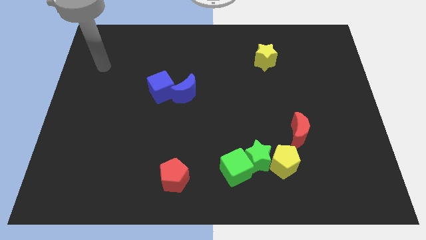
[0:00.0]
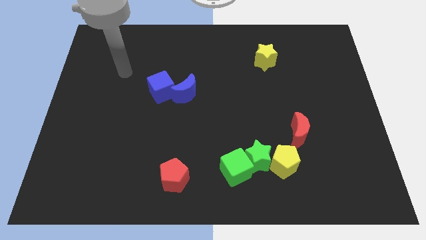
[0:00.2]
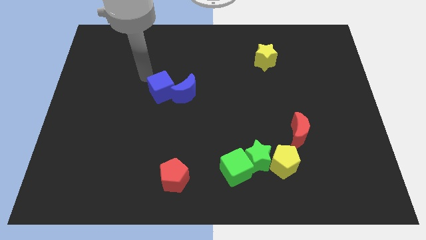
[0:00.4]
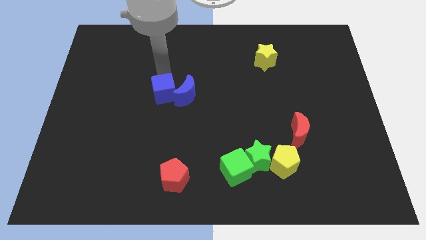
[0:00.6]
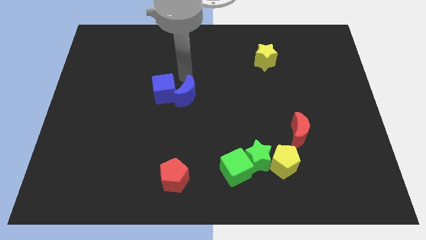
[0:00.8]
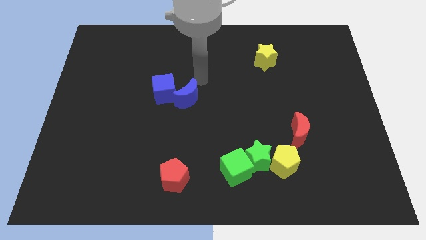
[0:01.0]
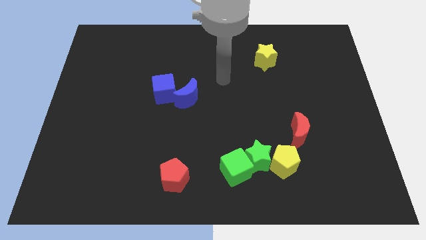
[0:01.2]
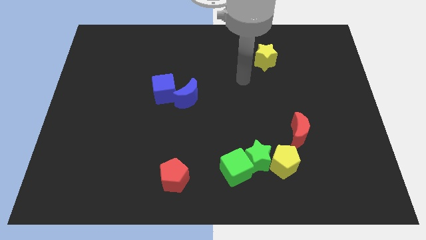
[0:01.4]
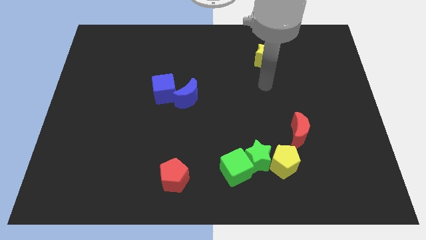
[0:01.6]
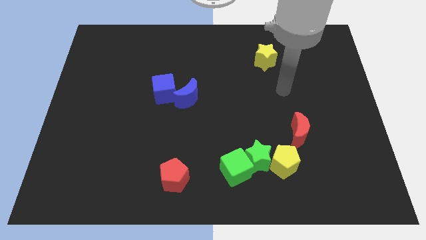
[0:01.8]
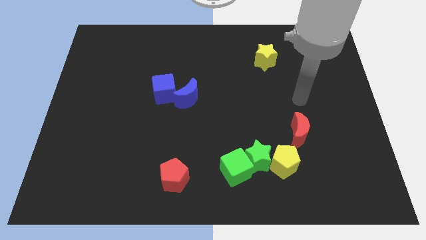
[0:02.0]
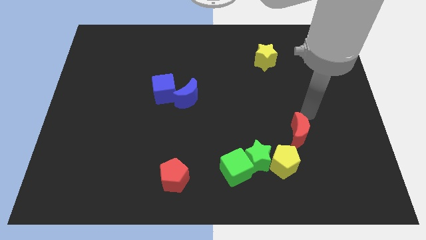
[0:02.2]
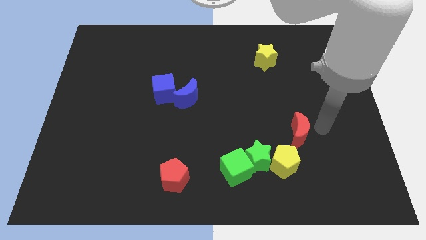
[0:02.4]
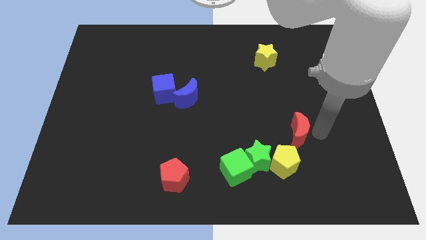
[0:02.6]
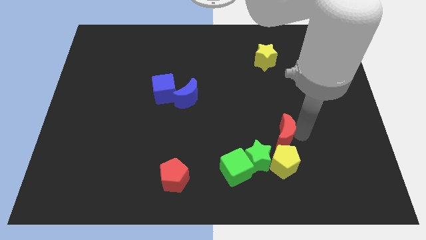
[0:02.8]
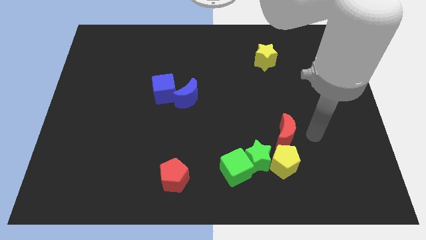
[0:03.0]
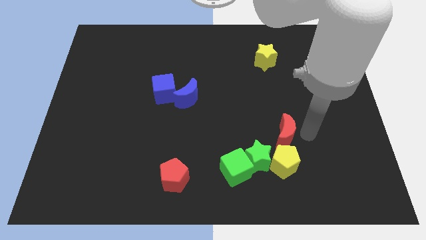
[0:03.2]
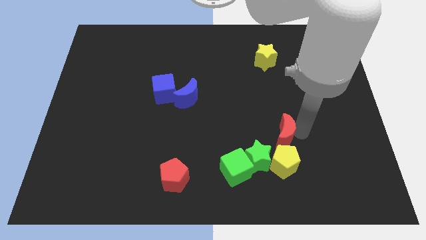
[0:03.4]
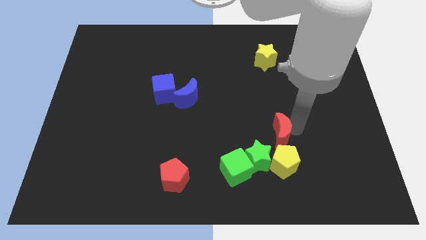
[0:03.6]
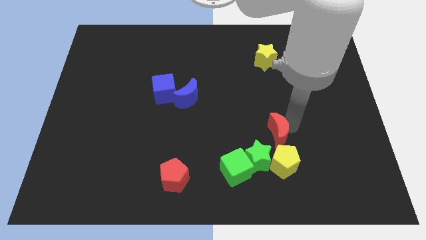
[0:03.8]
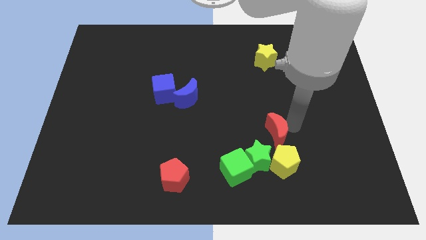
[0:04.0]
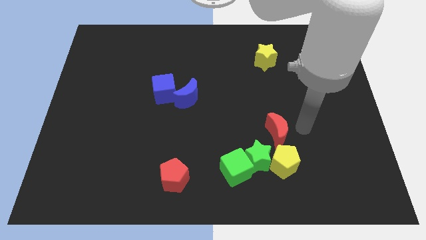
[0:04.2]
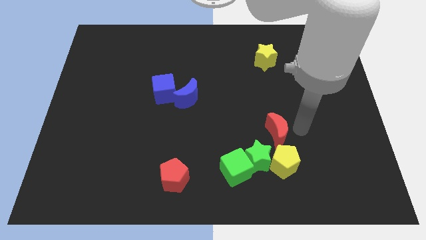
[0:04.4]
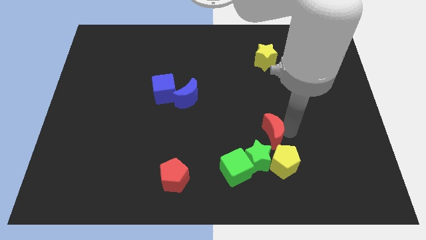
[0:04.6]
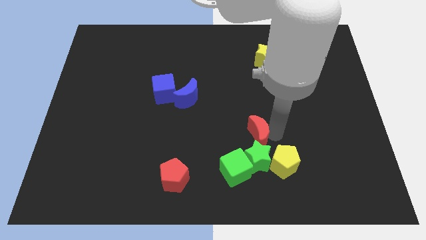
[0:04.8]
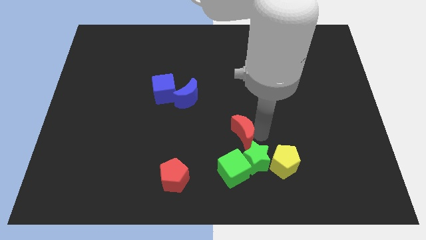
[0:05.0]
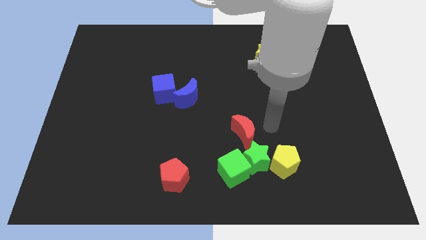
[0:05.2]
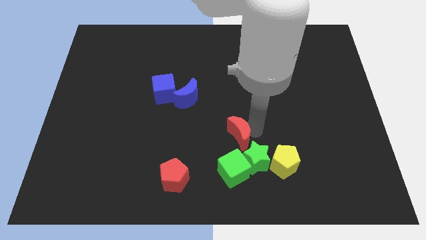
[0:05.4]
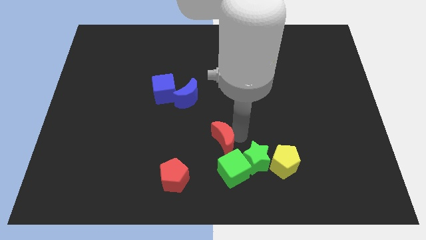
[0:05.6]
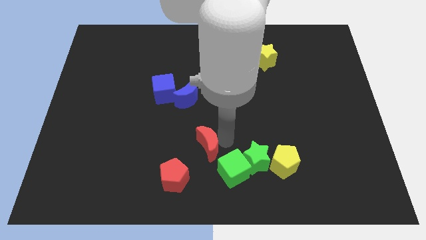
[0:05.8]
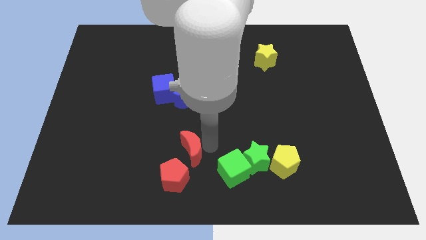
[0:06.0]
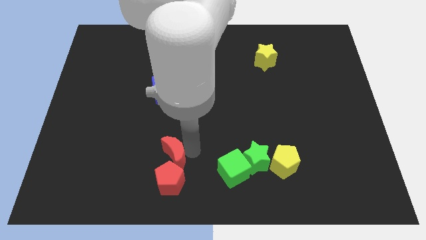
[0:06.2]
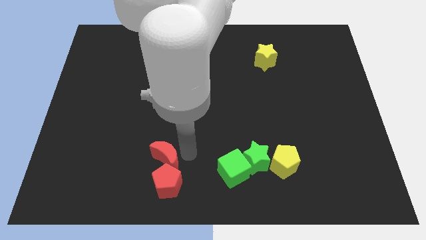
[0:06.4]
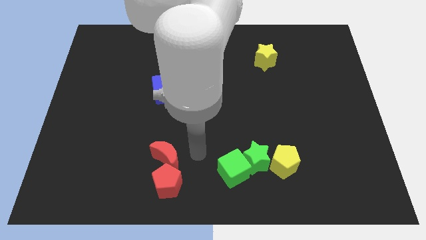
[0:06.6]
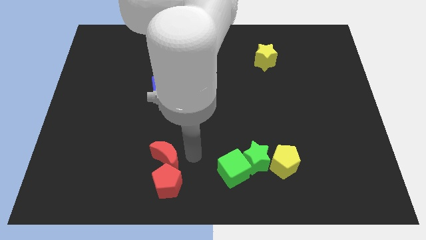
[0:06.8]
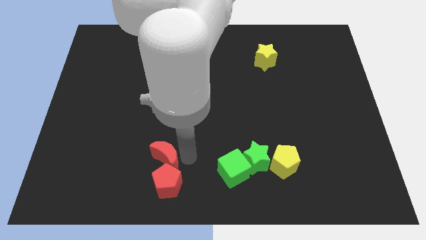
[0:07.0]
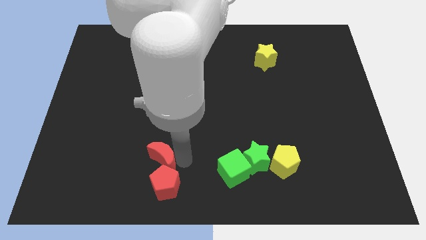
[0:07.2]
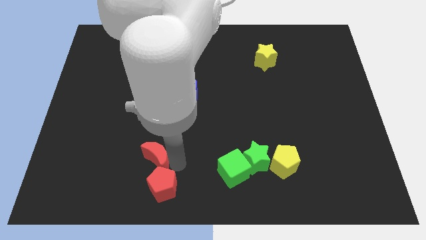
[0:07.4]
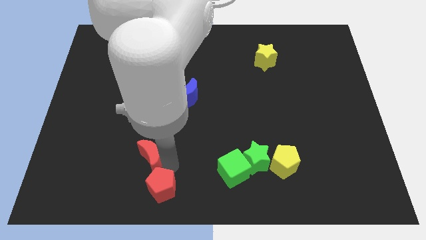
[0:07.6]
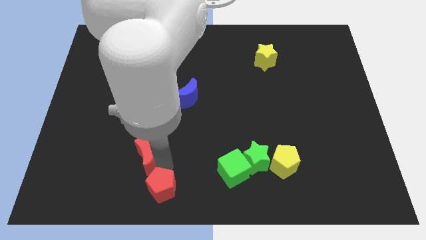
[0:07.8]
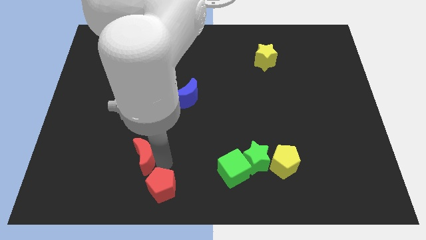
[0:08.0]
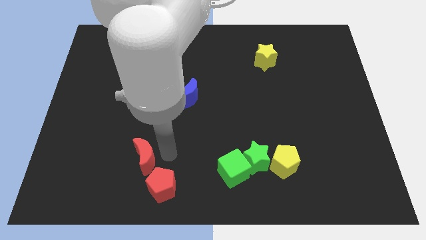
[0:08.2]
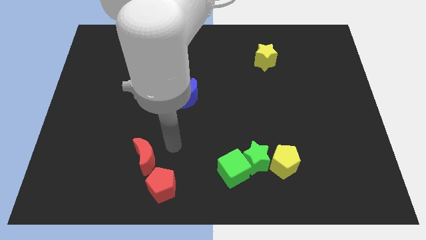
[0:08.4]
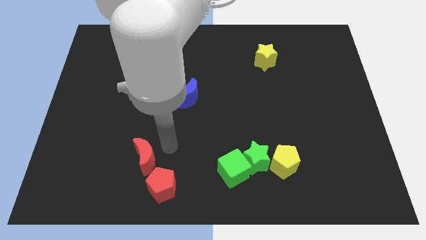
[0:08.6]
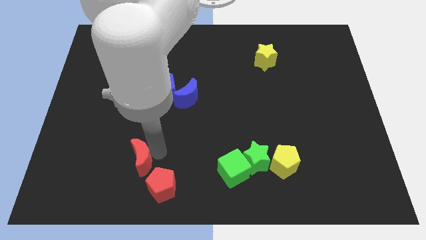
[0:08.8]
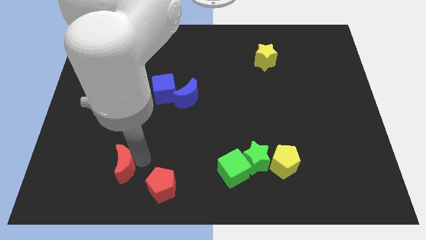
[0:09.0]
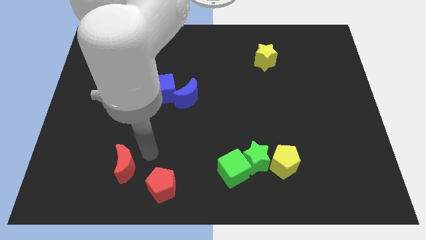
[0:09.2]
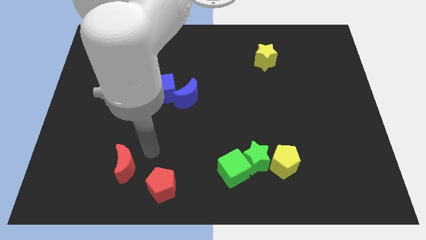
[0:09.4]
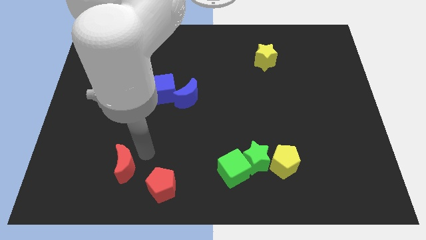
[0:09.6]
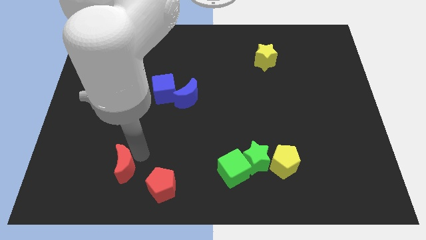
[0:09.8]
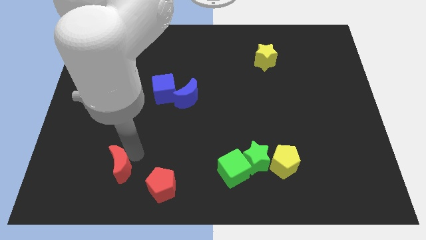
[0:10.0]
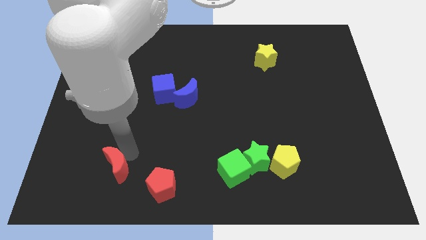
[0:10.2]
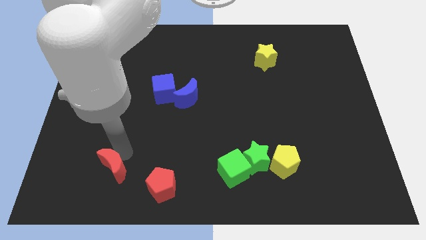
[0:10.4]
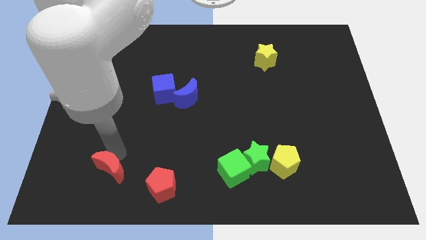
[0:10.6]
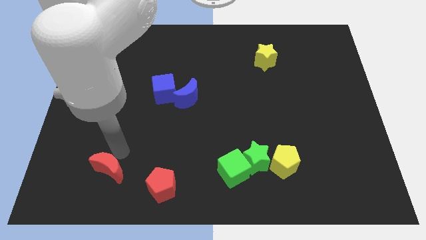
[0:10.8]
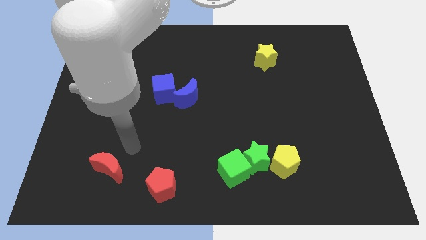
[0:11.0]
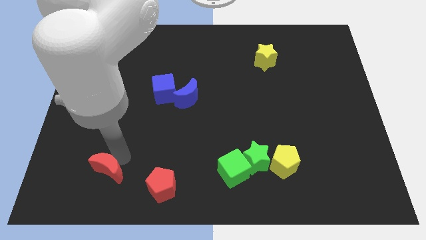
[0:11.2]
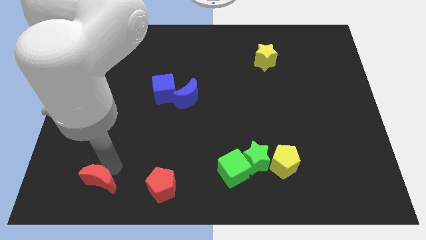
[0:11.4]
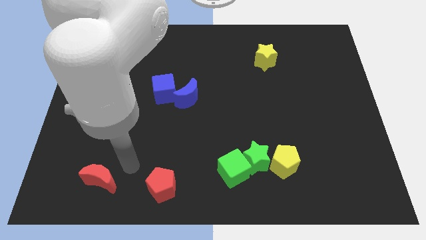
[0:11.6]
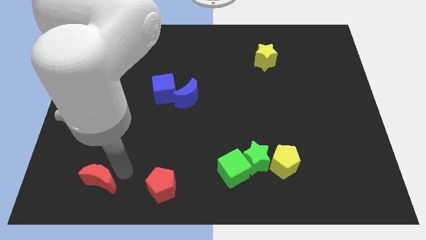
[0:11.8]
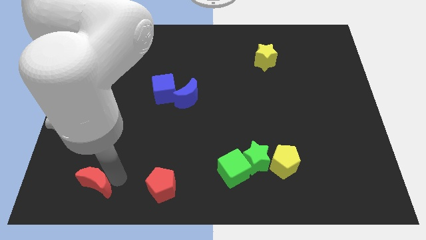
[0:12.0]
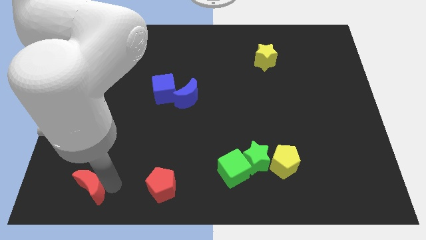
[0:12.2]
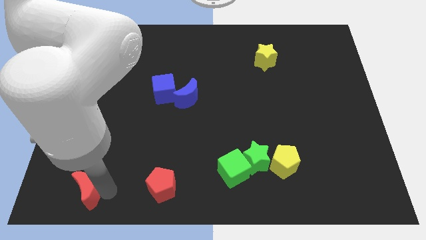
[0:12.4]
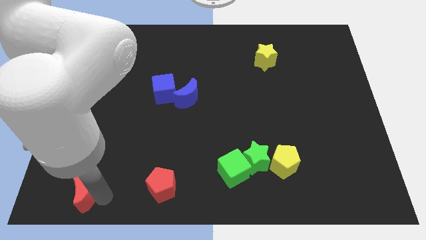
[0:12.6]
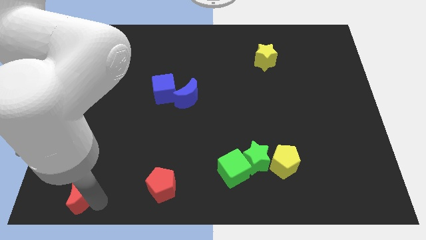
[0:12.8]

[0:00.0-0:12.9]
slide the red moon to the bottom left corner
